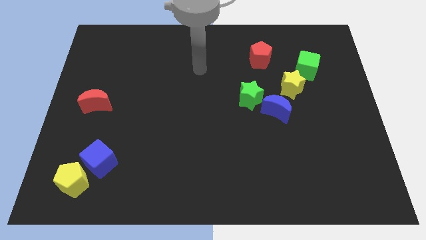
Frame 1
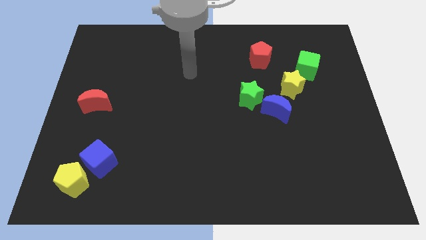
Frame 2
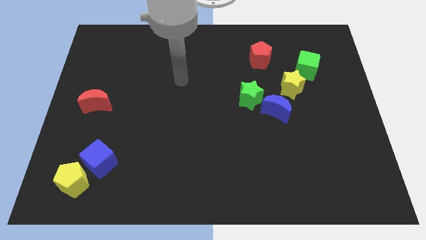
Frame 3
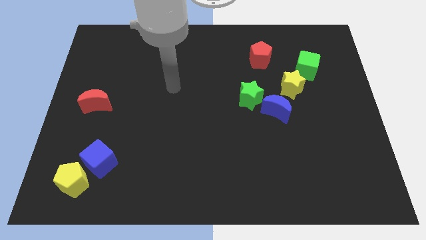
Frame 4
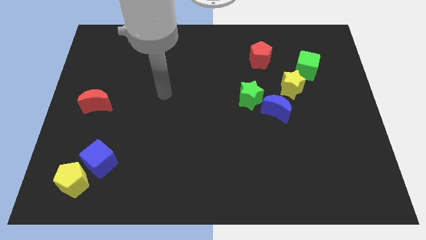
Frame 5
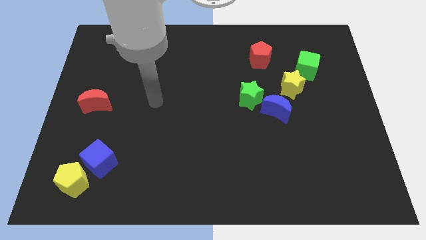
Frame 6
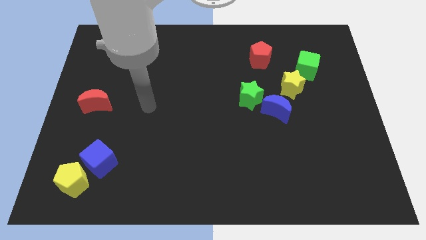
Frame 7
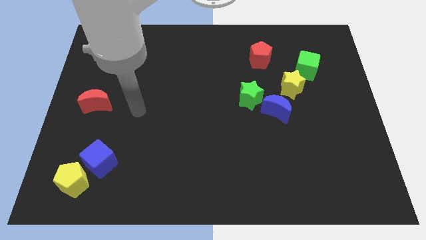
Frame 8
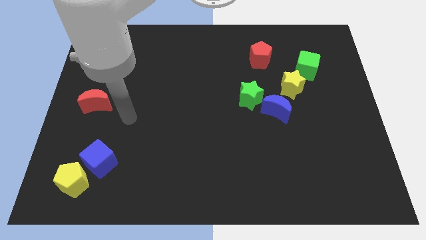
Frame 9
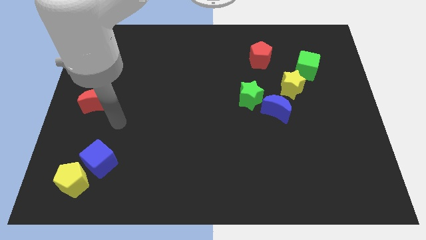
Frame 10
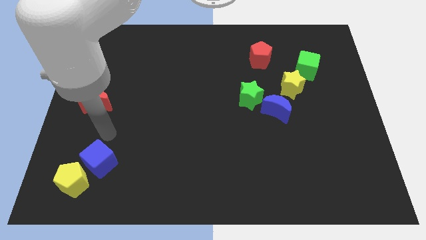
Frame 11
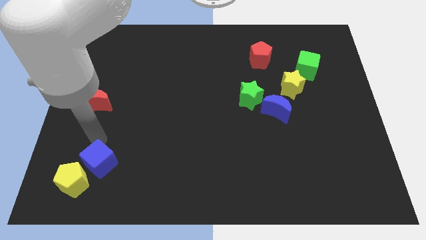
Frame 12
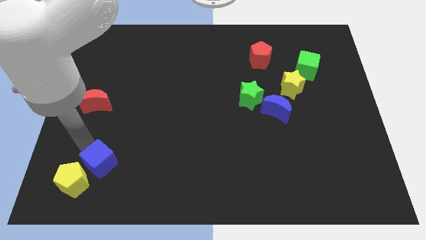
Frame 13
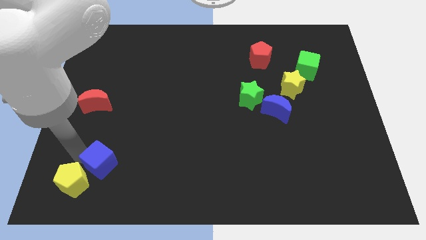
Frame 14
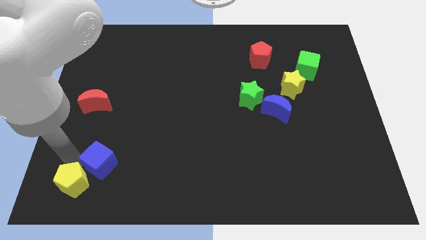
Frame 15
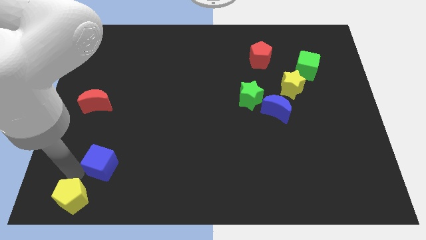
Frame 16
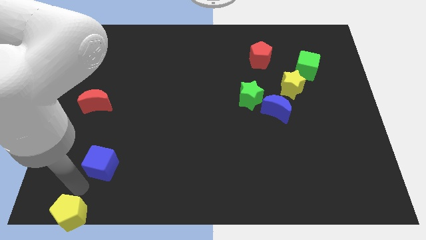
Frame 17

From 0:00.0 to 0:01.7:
pull the blue cube apart from the yellow pentagon

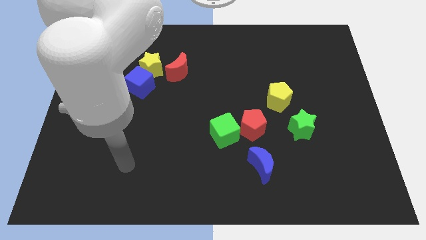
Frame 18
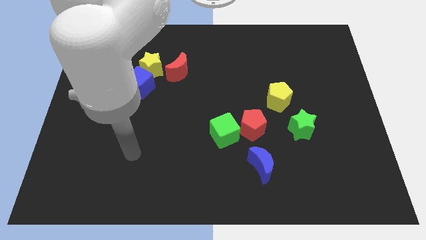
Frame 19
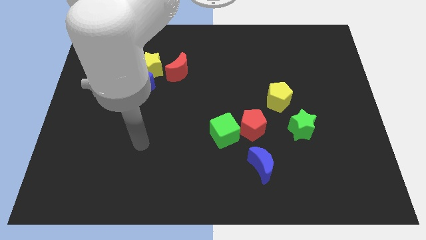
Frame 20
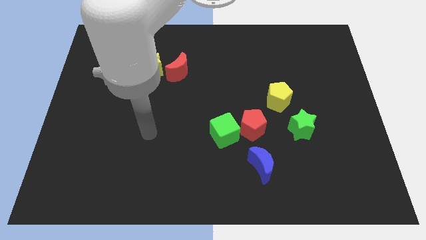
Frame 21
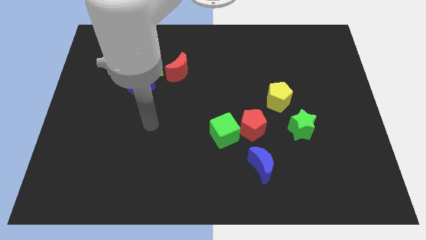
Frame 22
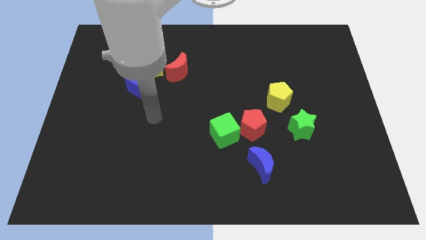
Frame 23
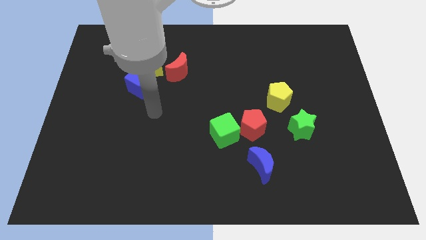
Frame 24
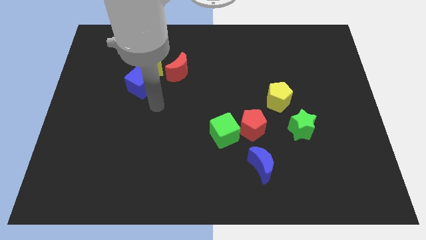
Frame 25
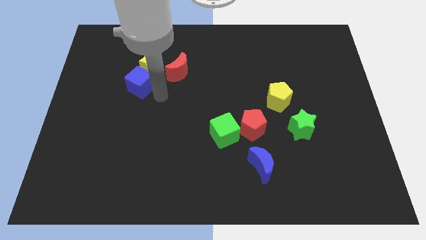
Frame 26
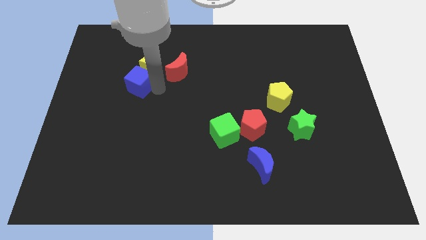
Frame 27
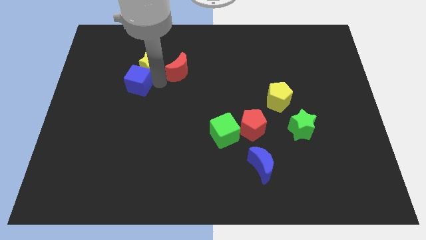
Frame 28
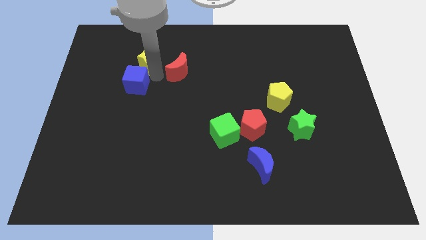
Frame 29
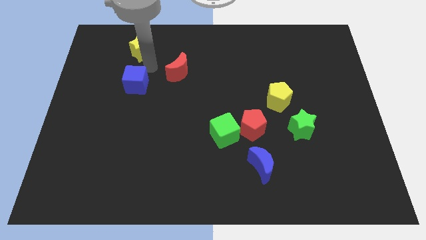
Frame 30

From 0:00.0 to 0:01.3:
separate the blue cube from the yellow star

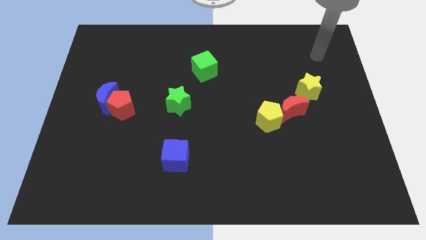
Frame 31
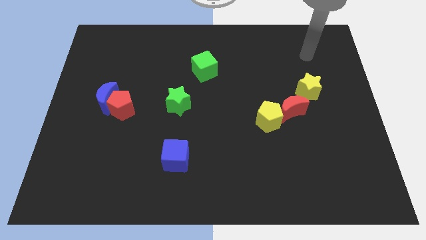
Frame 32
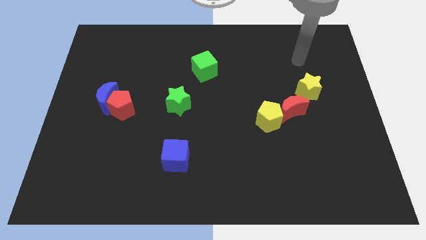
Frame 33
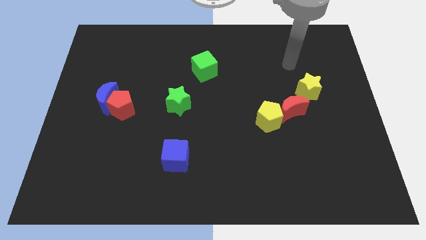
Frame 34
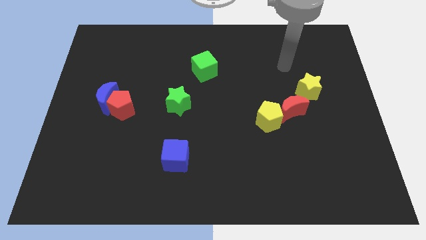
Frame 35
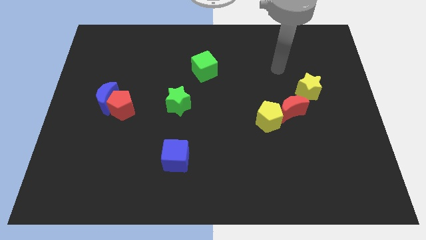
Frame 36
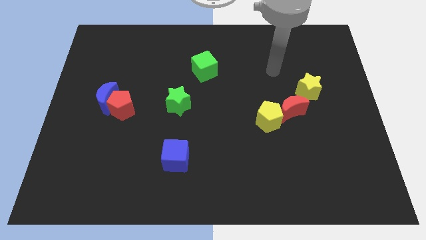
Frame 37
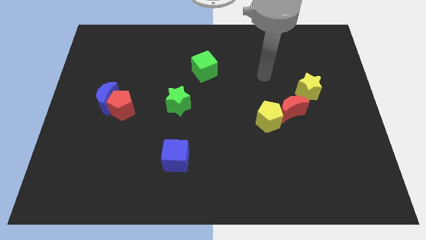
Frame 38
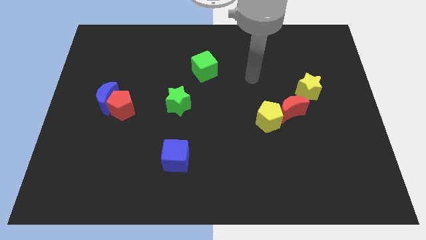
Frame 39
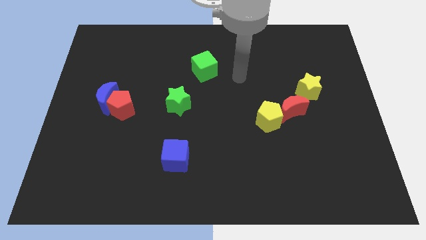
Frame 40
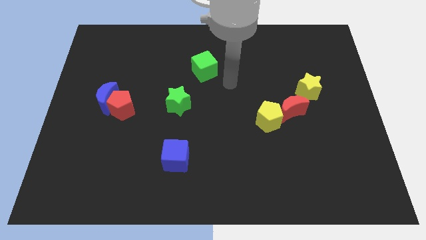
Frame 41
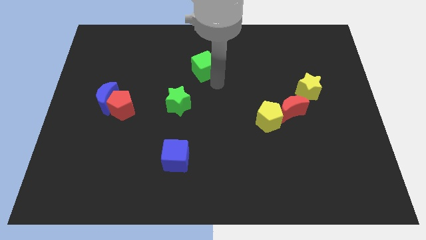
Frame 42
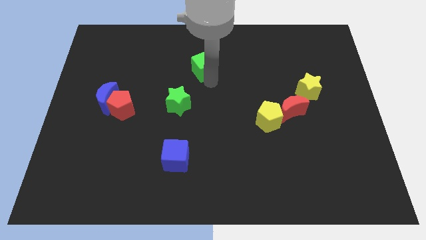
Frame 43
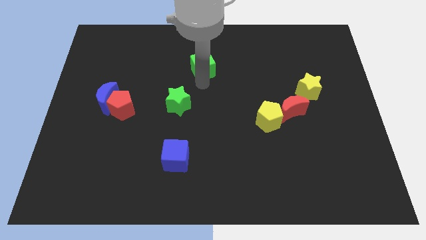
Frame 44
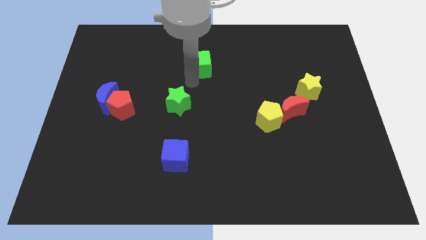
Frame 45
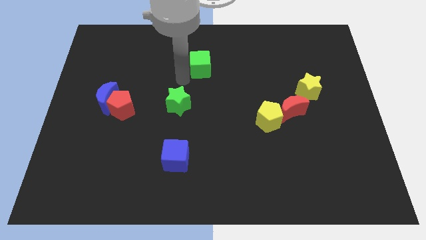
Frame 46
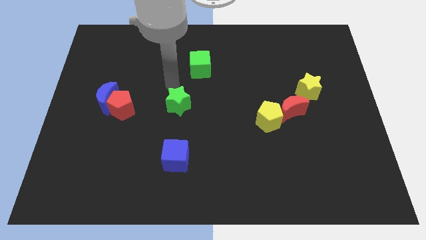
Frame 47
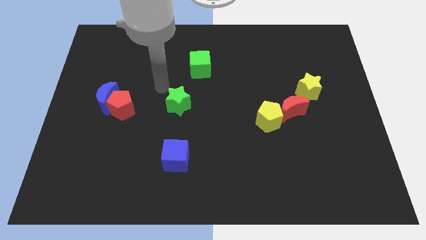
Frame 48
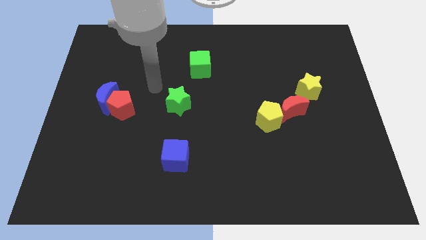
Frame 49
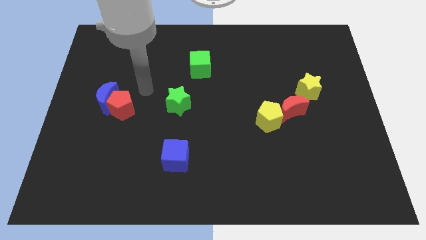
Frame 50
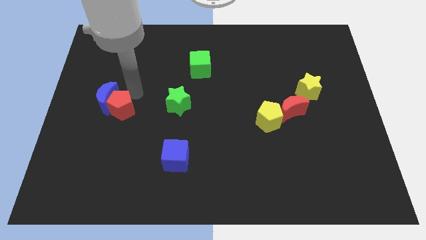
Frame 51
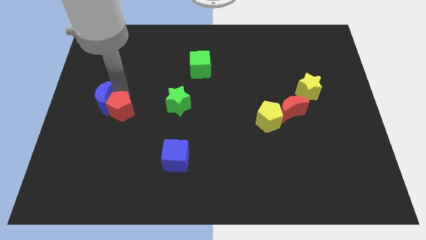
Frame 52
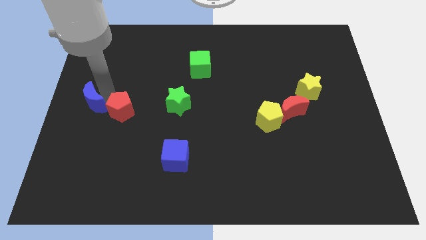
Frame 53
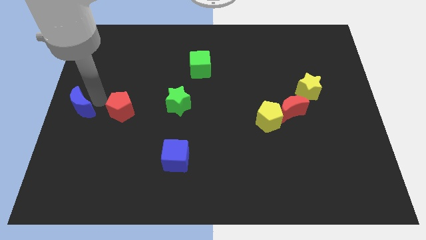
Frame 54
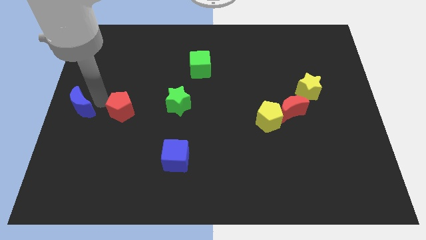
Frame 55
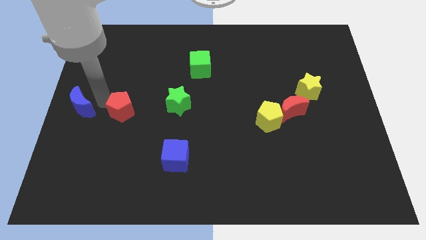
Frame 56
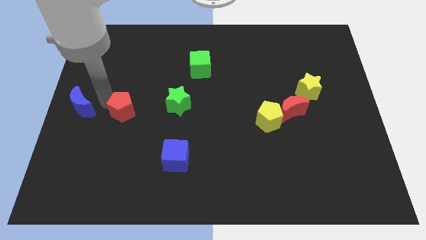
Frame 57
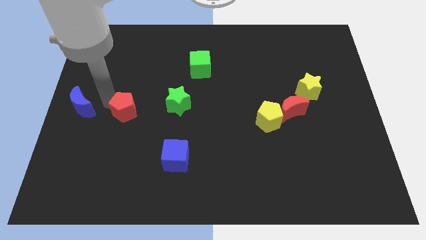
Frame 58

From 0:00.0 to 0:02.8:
move the red pentagon away from the blue moon

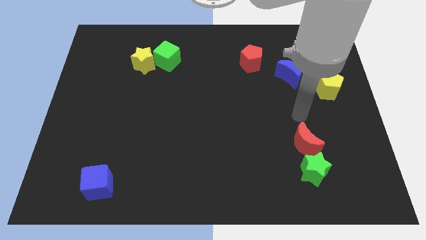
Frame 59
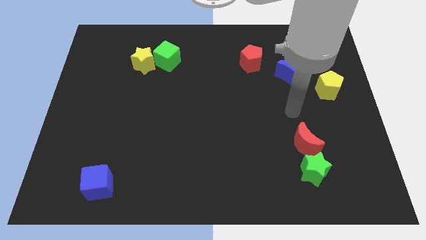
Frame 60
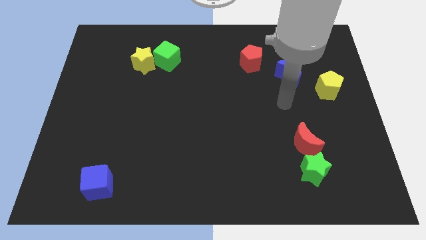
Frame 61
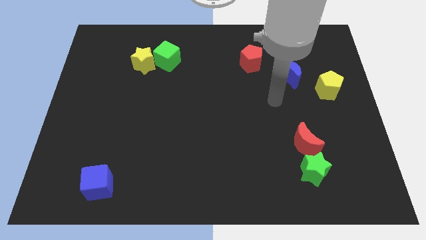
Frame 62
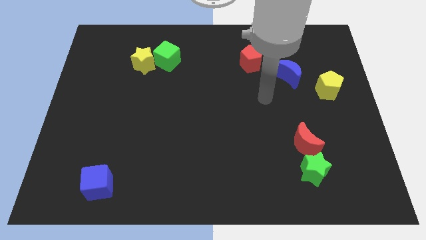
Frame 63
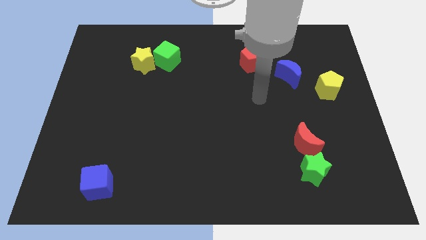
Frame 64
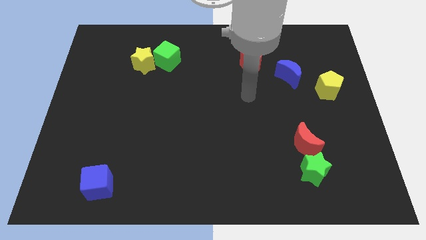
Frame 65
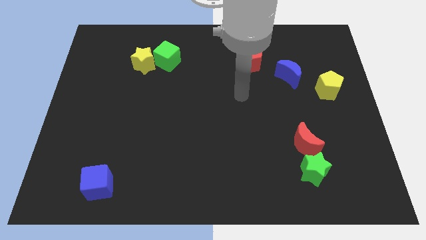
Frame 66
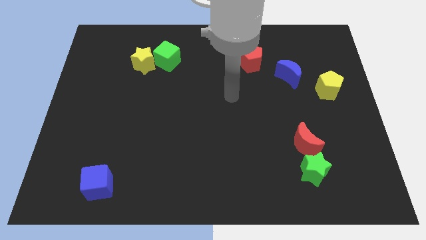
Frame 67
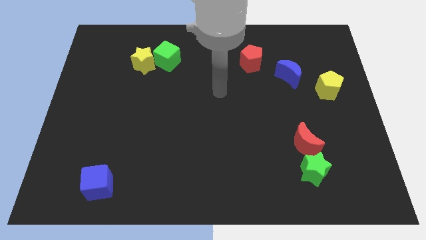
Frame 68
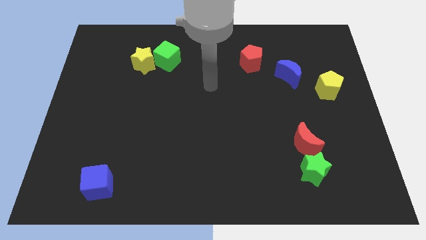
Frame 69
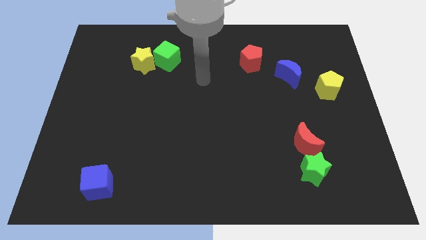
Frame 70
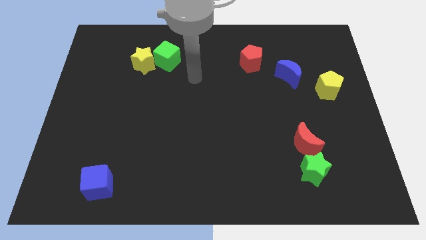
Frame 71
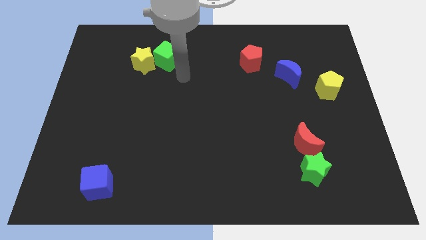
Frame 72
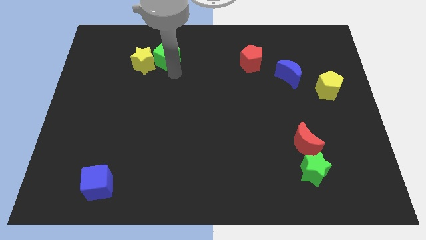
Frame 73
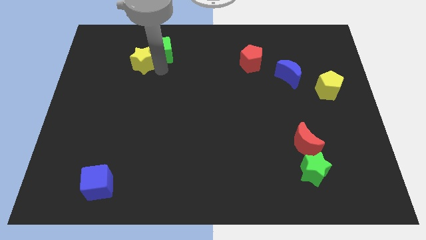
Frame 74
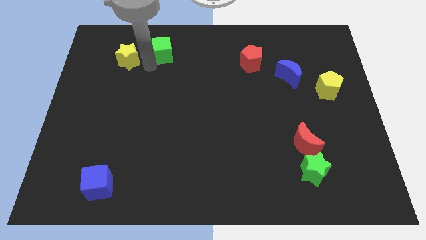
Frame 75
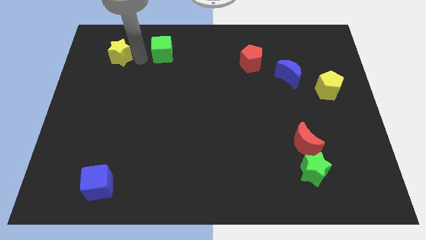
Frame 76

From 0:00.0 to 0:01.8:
separate the green cube from the yellow star

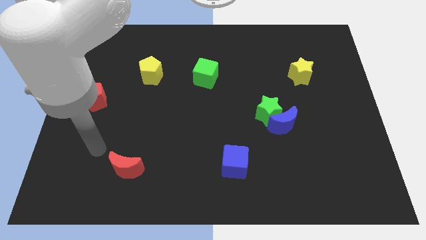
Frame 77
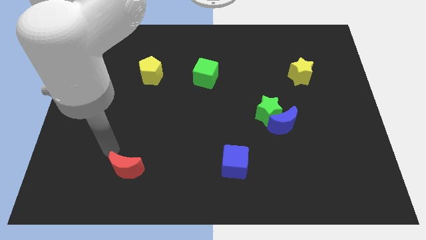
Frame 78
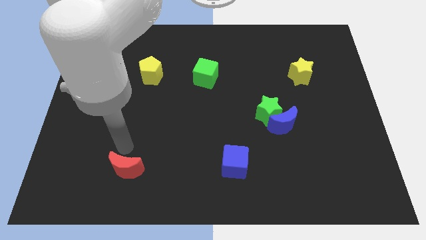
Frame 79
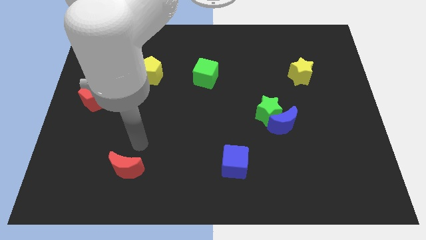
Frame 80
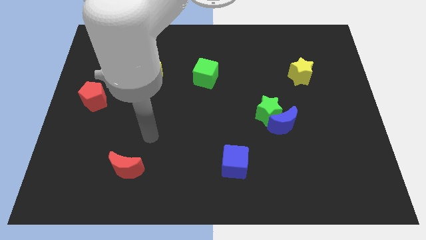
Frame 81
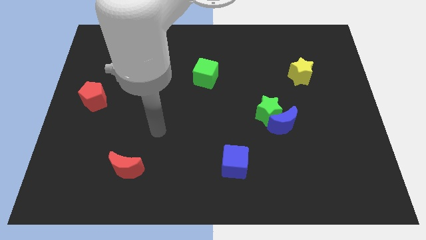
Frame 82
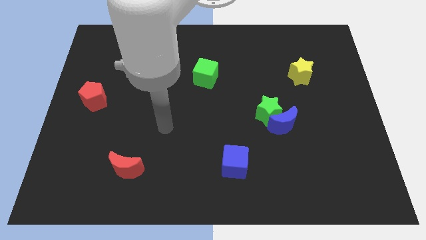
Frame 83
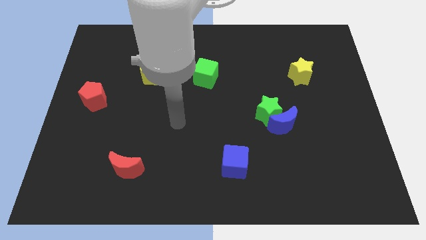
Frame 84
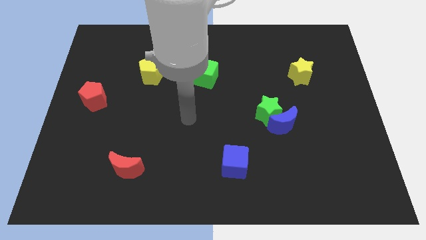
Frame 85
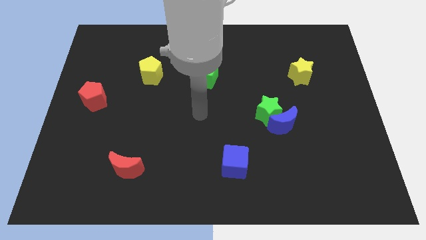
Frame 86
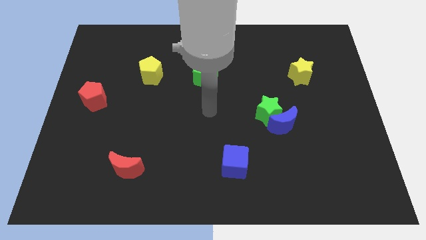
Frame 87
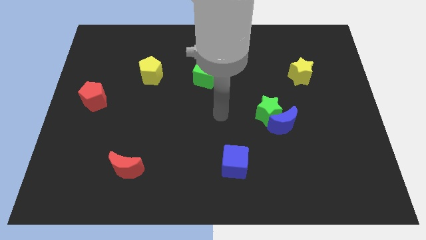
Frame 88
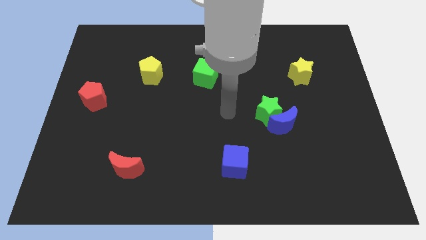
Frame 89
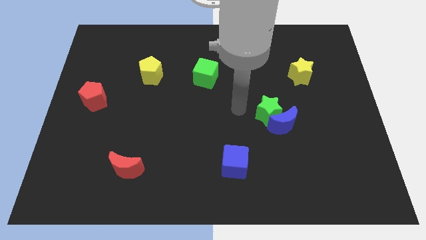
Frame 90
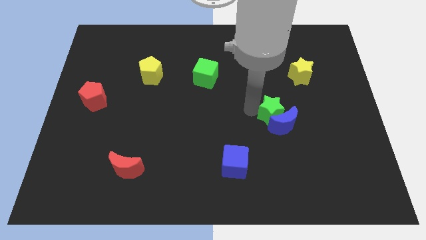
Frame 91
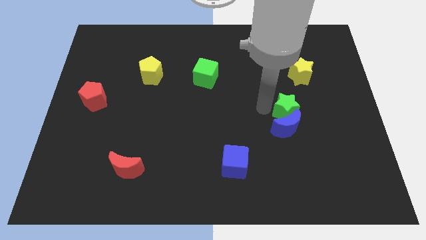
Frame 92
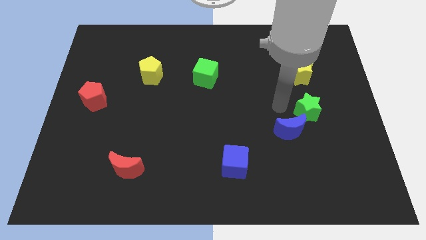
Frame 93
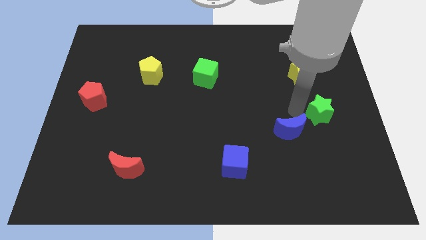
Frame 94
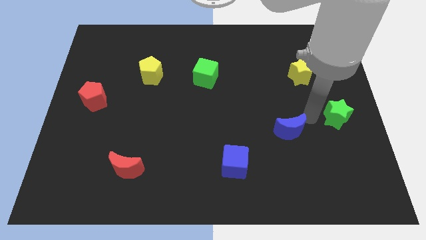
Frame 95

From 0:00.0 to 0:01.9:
move the blue moon away from the green star
